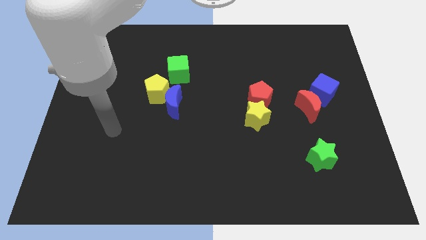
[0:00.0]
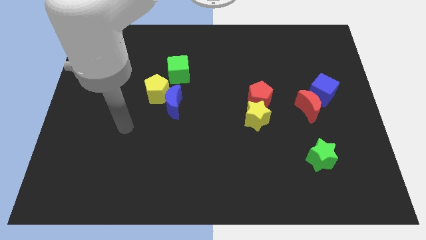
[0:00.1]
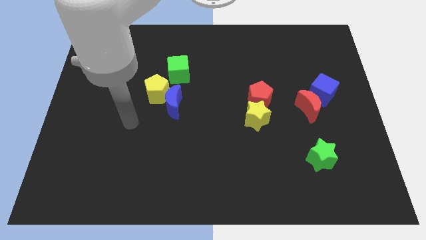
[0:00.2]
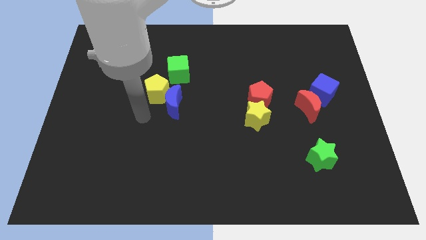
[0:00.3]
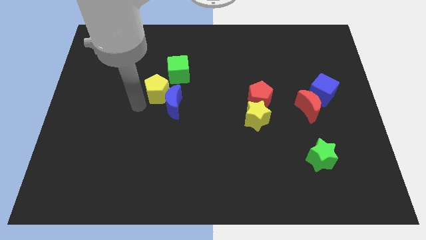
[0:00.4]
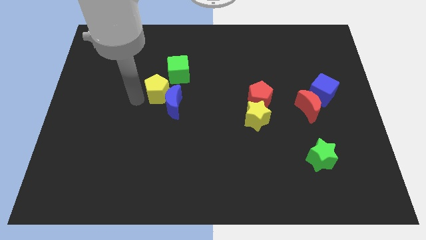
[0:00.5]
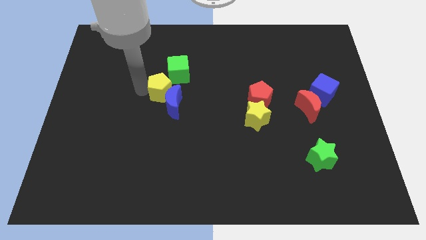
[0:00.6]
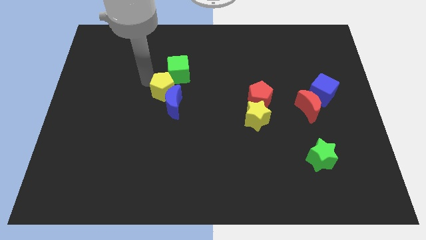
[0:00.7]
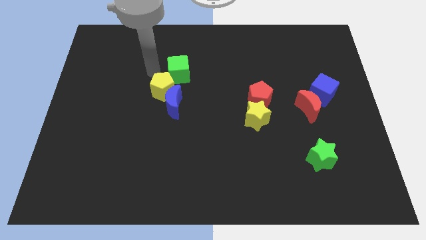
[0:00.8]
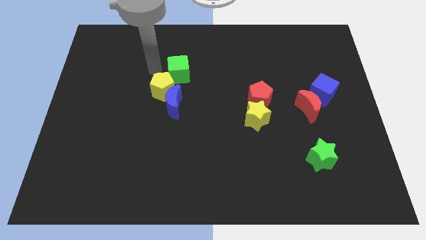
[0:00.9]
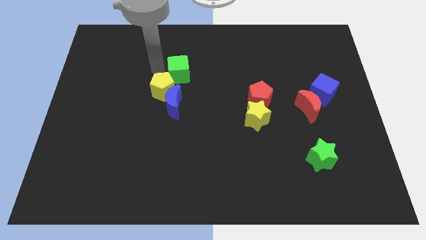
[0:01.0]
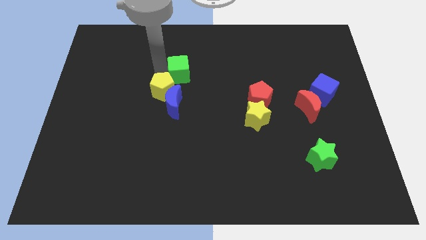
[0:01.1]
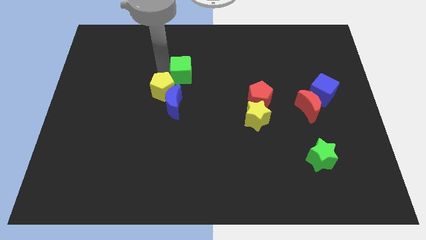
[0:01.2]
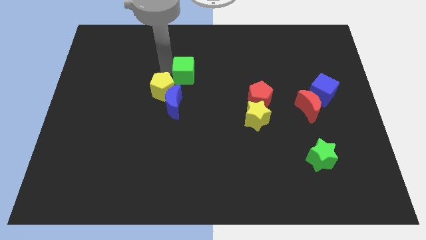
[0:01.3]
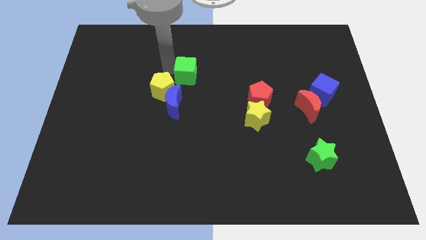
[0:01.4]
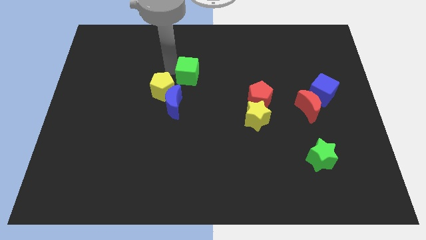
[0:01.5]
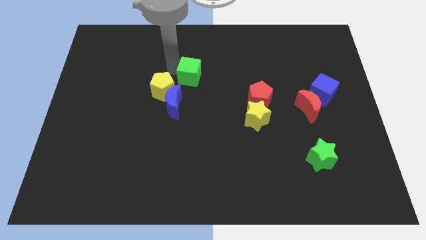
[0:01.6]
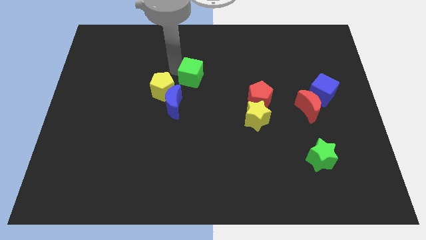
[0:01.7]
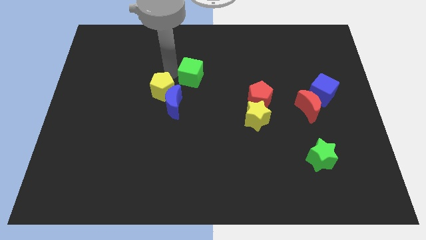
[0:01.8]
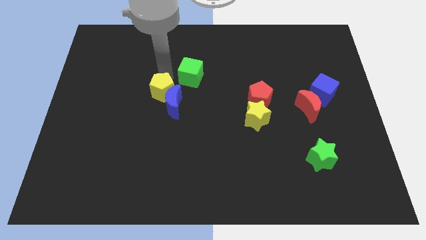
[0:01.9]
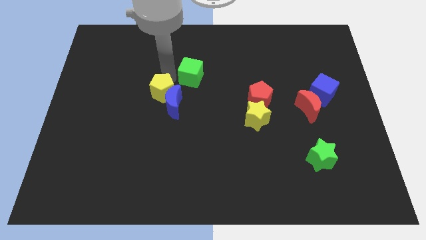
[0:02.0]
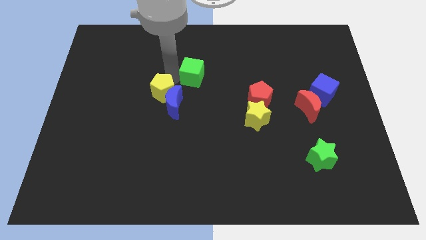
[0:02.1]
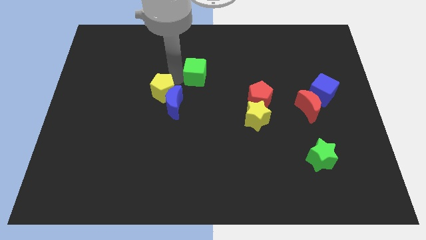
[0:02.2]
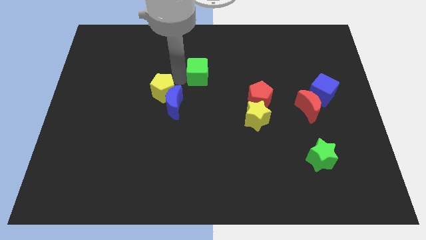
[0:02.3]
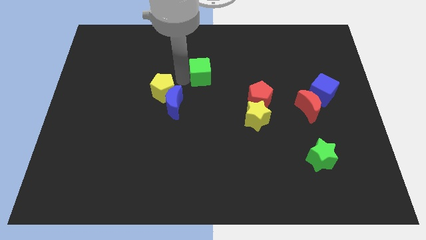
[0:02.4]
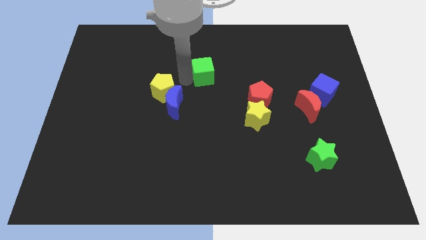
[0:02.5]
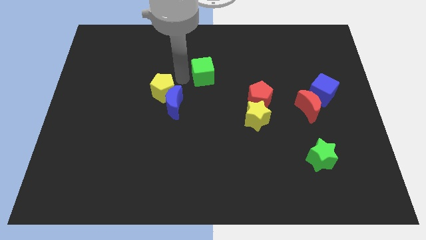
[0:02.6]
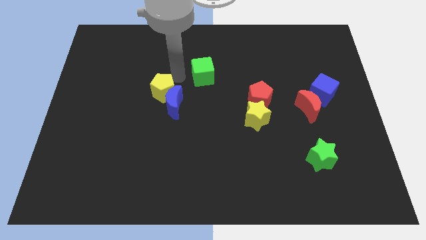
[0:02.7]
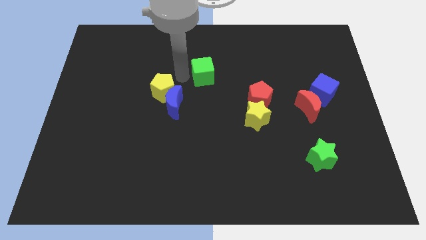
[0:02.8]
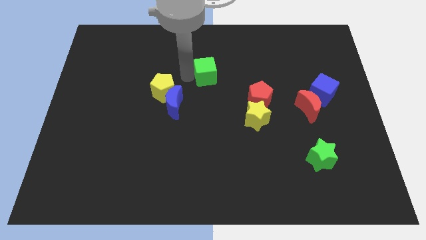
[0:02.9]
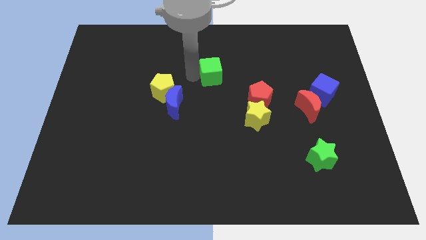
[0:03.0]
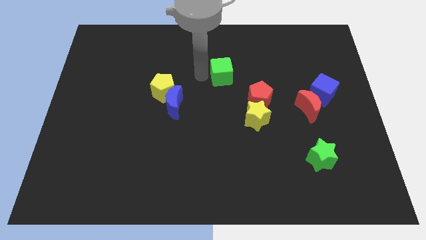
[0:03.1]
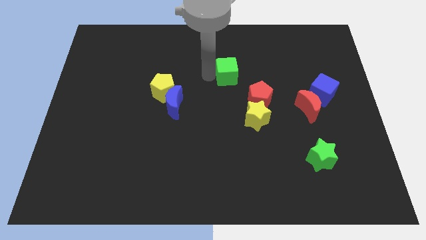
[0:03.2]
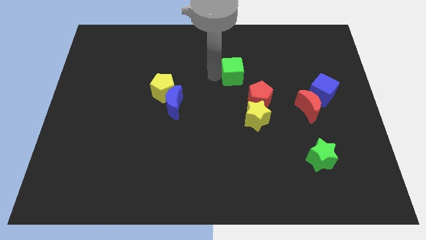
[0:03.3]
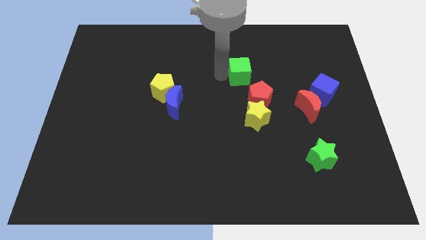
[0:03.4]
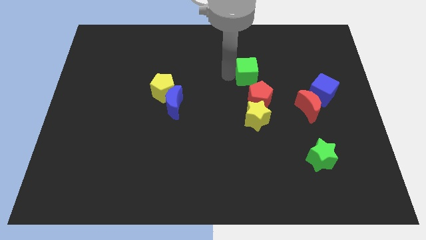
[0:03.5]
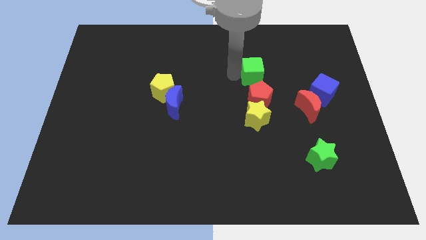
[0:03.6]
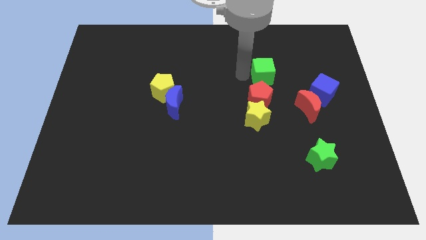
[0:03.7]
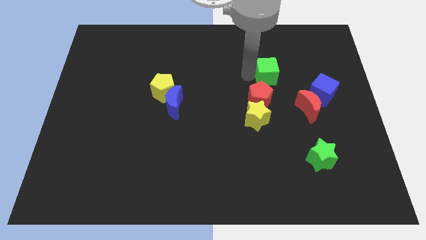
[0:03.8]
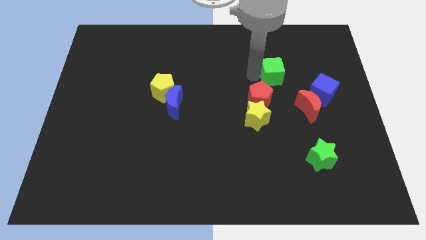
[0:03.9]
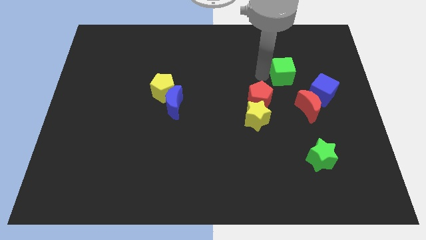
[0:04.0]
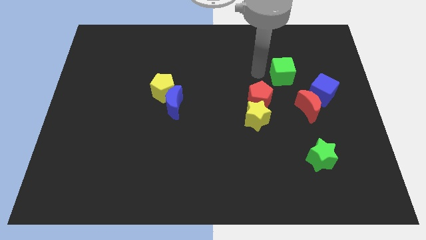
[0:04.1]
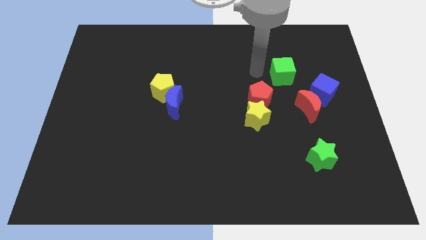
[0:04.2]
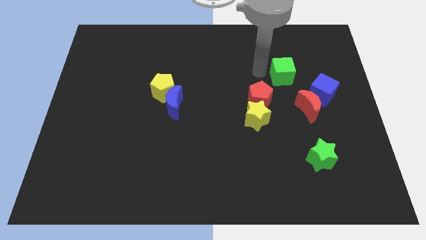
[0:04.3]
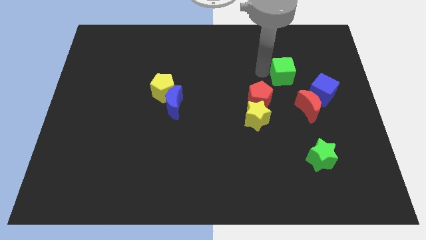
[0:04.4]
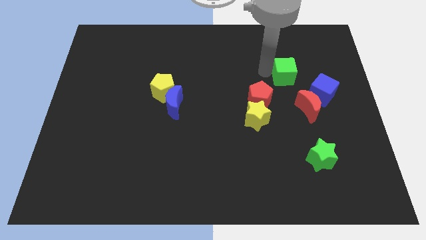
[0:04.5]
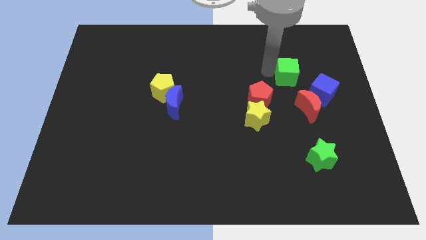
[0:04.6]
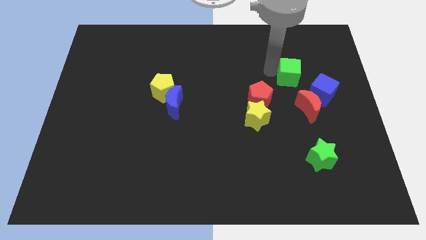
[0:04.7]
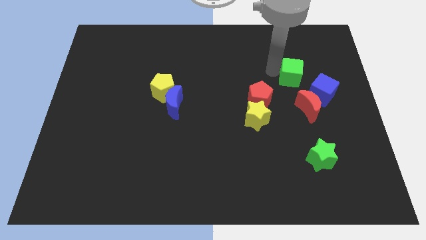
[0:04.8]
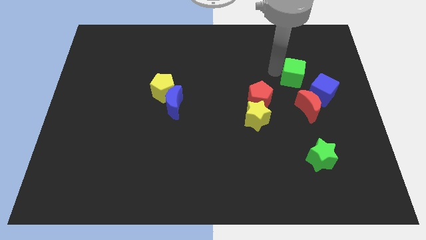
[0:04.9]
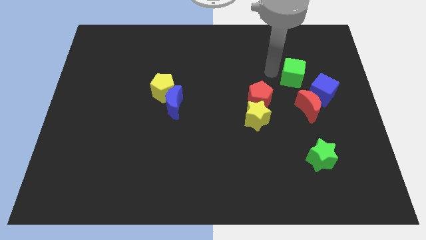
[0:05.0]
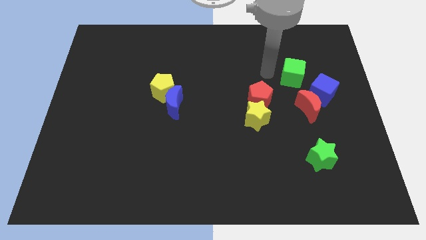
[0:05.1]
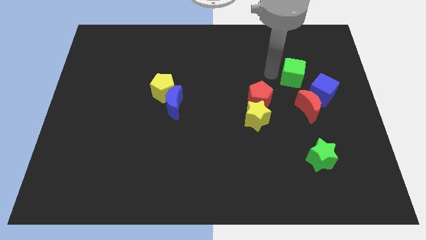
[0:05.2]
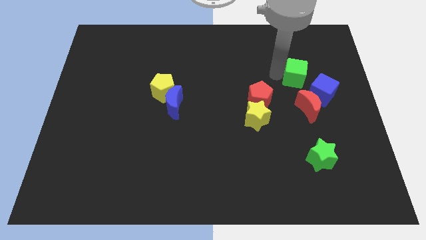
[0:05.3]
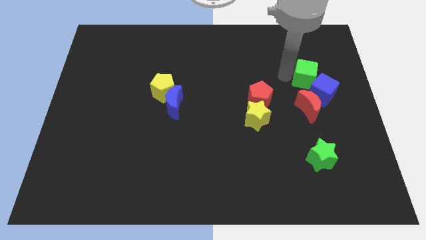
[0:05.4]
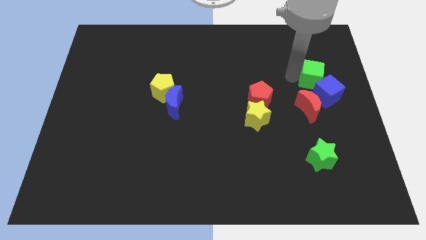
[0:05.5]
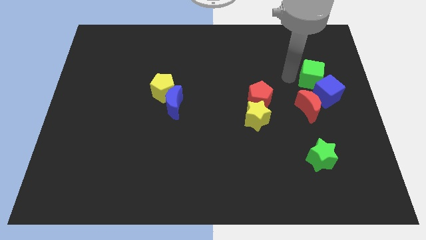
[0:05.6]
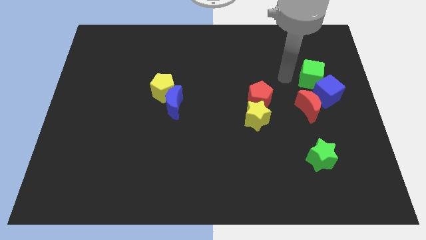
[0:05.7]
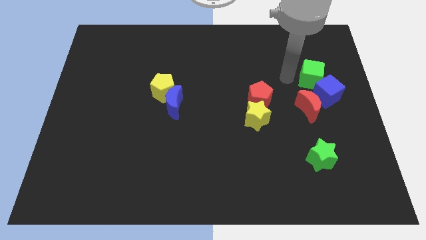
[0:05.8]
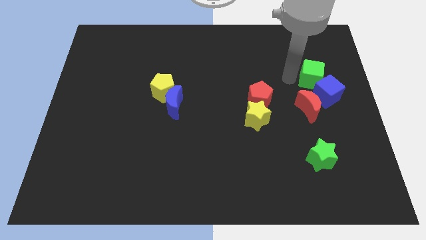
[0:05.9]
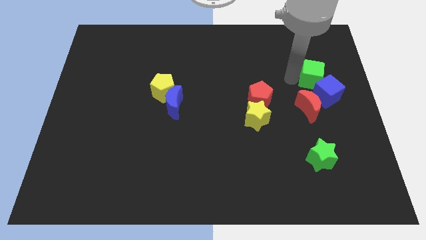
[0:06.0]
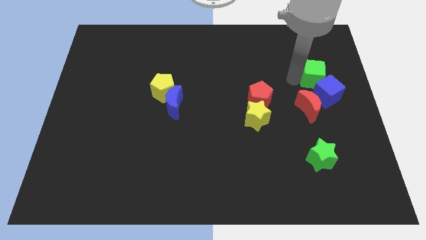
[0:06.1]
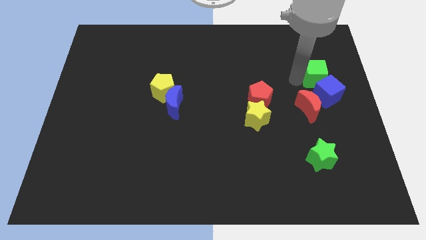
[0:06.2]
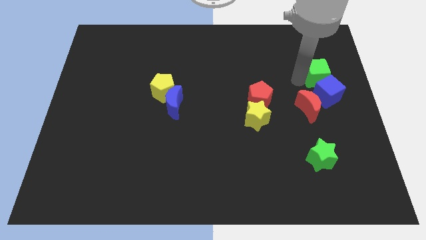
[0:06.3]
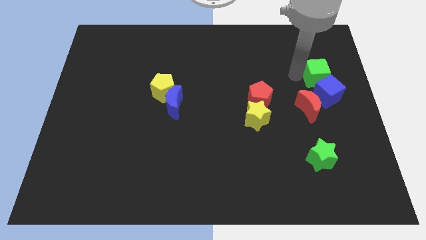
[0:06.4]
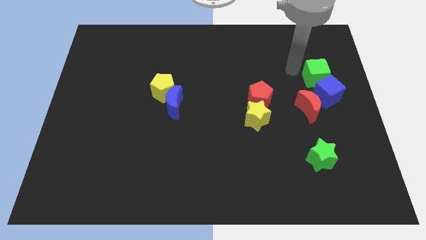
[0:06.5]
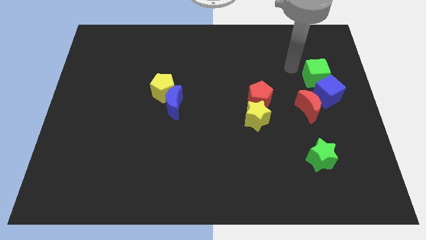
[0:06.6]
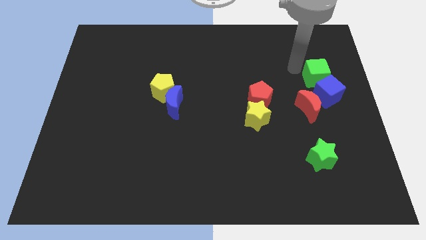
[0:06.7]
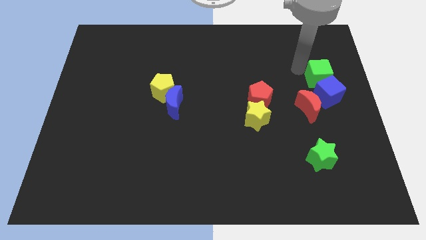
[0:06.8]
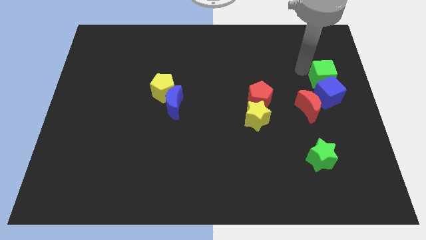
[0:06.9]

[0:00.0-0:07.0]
put the green cube to the center right
